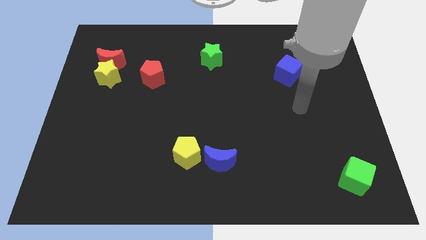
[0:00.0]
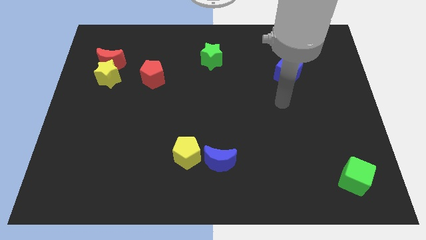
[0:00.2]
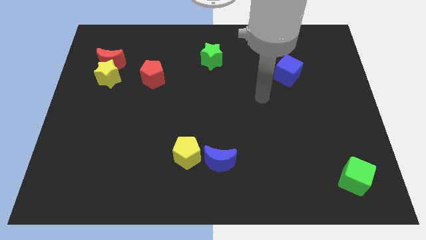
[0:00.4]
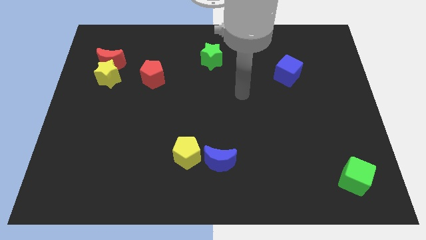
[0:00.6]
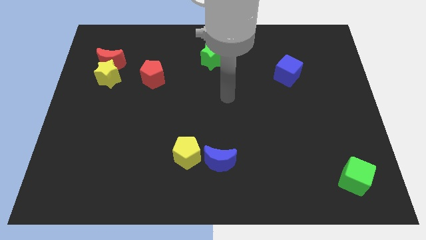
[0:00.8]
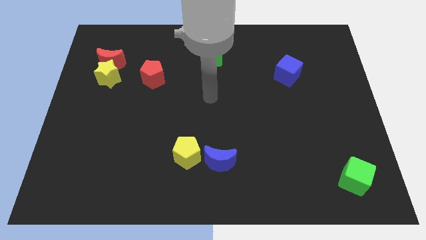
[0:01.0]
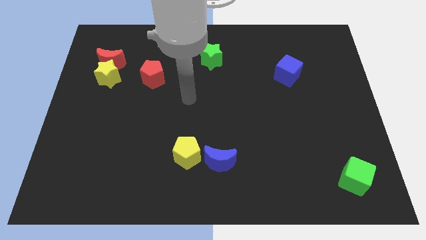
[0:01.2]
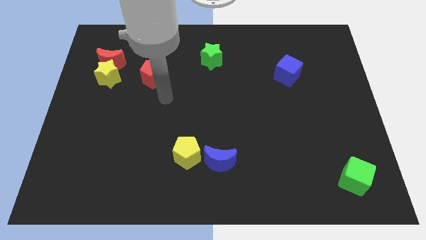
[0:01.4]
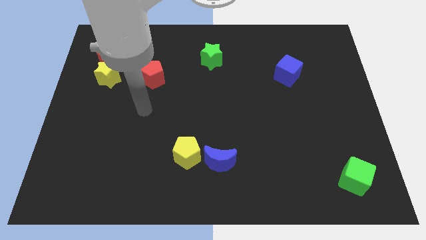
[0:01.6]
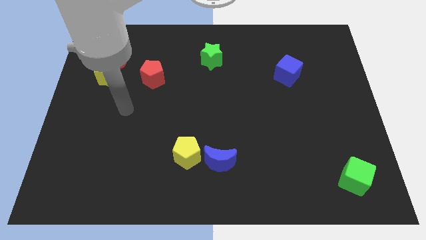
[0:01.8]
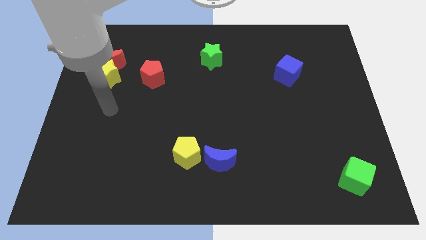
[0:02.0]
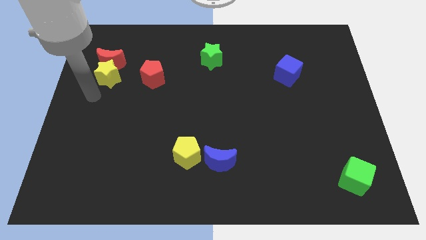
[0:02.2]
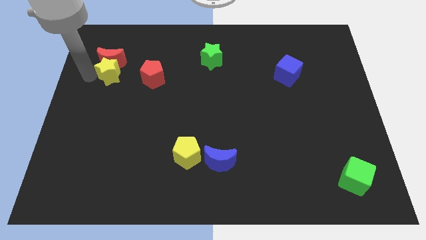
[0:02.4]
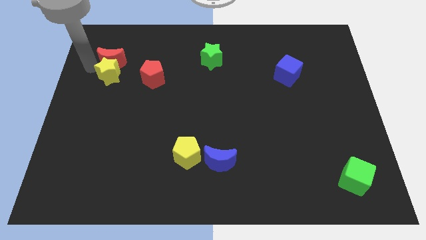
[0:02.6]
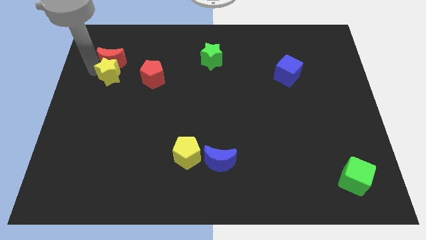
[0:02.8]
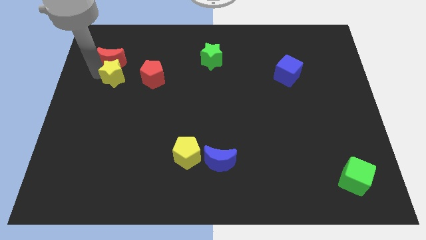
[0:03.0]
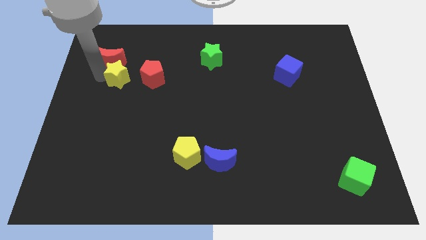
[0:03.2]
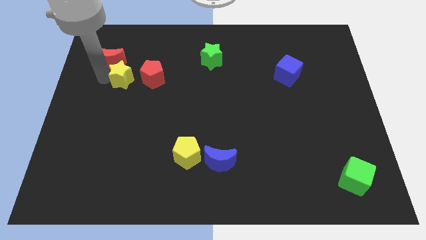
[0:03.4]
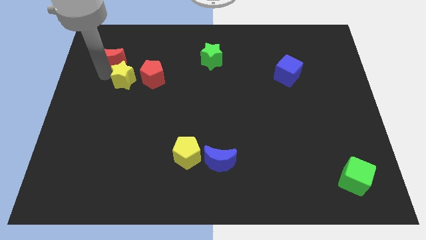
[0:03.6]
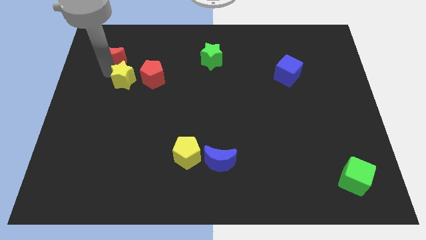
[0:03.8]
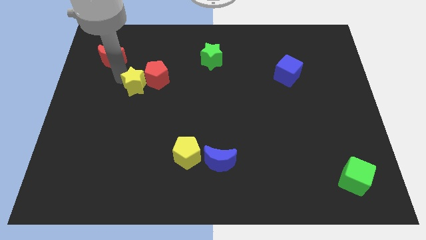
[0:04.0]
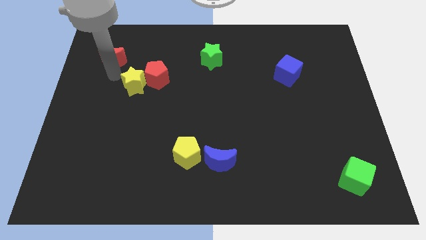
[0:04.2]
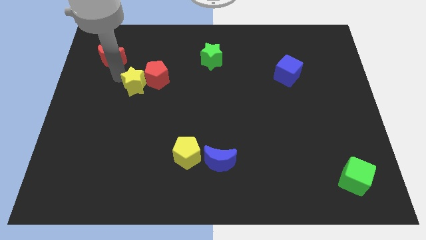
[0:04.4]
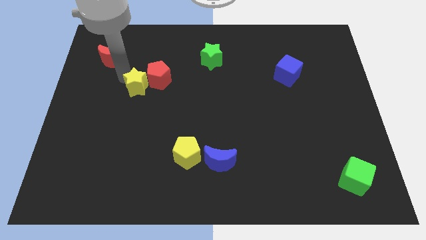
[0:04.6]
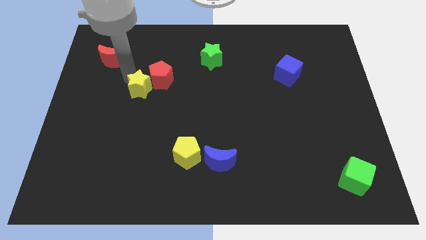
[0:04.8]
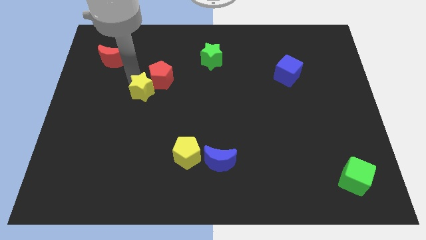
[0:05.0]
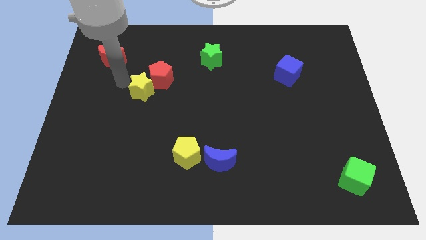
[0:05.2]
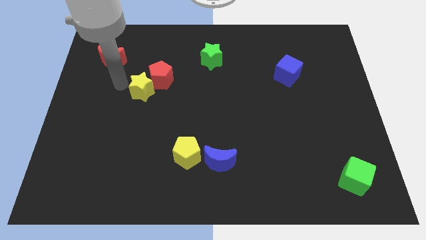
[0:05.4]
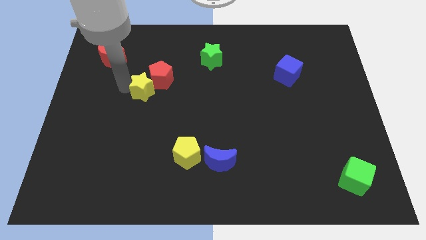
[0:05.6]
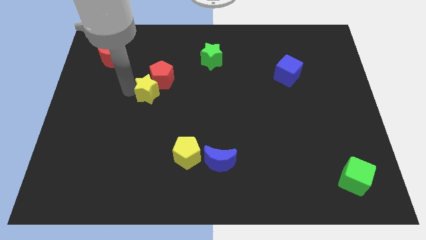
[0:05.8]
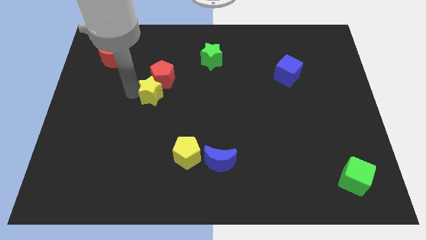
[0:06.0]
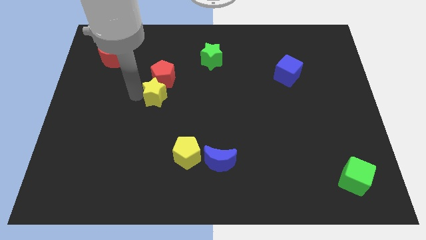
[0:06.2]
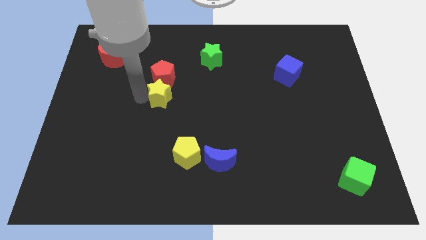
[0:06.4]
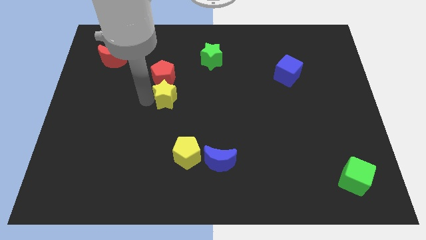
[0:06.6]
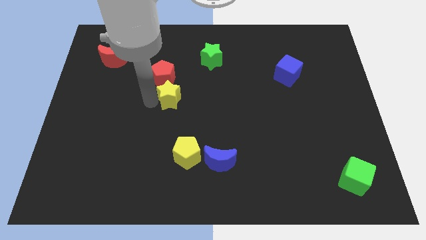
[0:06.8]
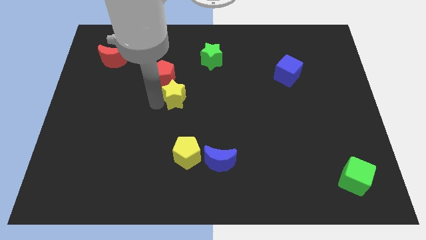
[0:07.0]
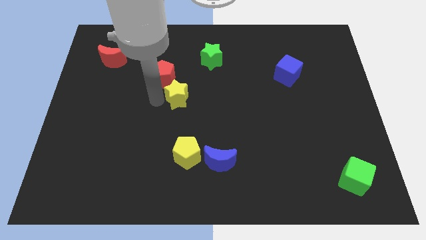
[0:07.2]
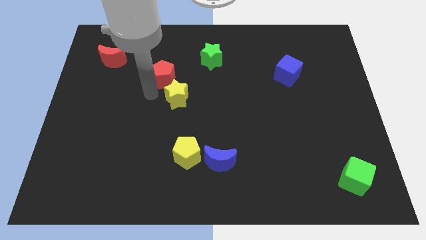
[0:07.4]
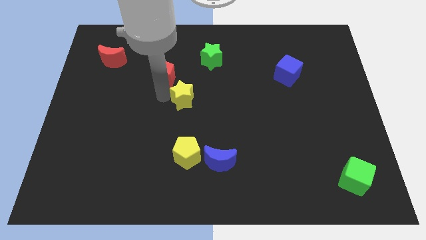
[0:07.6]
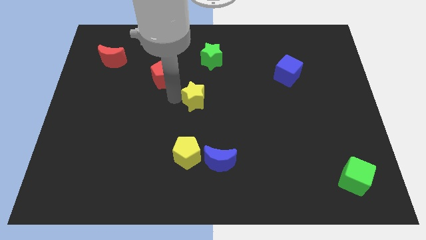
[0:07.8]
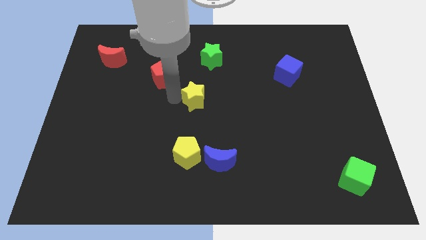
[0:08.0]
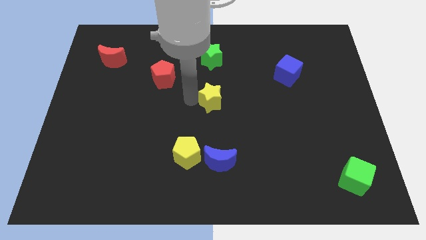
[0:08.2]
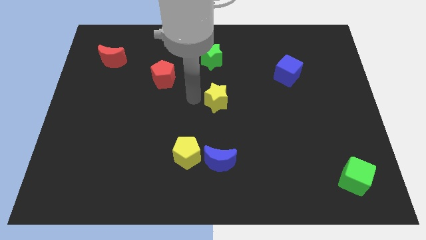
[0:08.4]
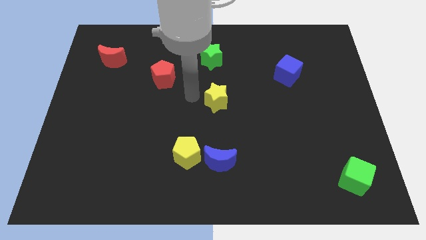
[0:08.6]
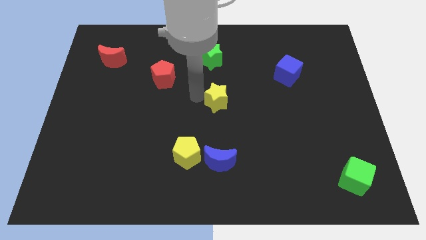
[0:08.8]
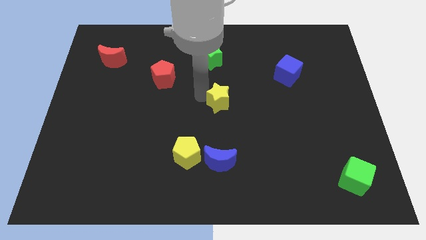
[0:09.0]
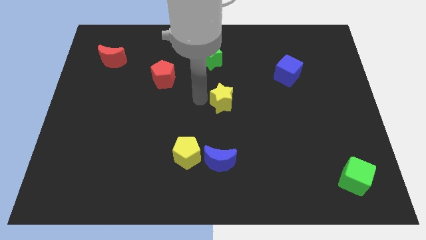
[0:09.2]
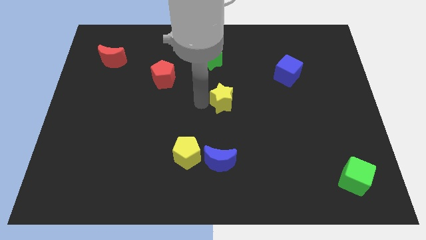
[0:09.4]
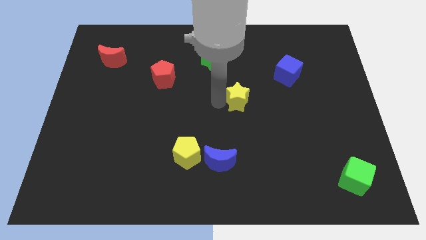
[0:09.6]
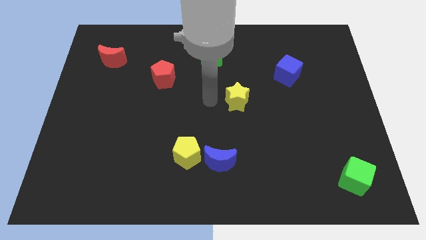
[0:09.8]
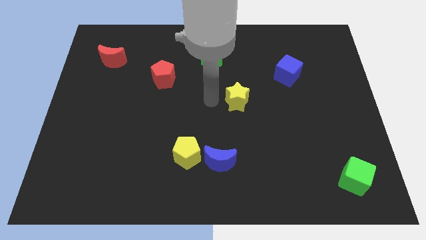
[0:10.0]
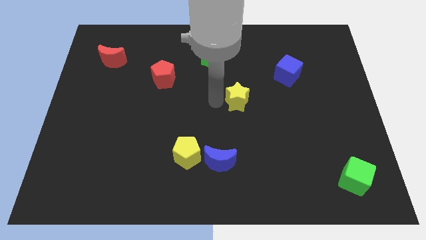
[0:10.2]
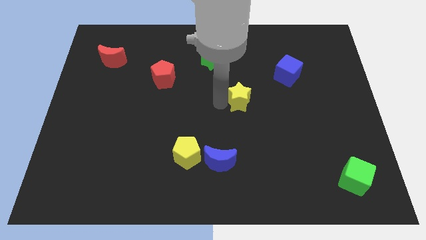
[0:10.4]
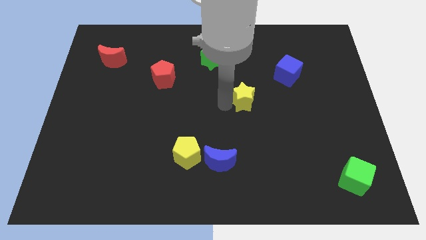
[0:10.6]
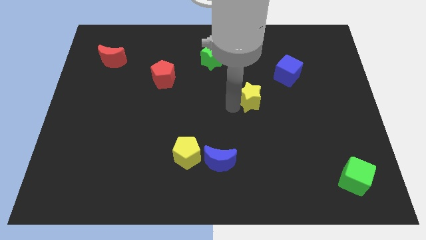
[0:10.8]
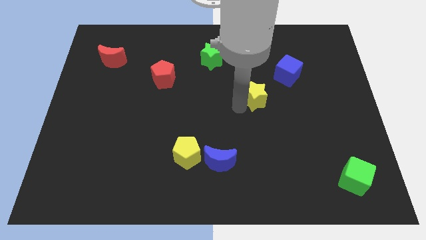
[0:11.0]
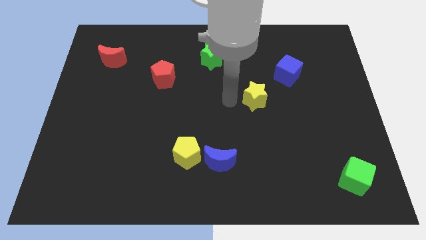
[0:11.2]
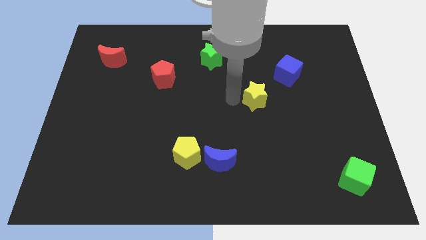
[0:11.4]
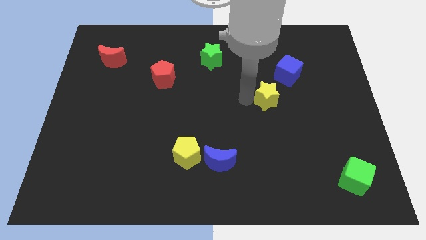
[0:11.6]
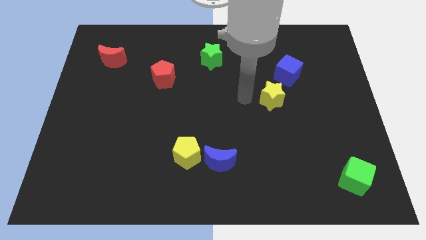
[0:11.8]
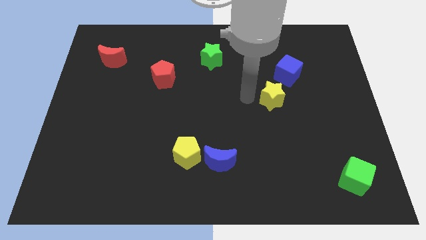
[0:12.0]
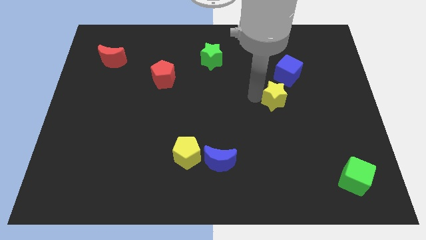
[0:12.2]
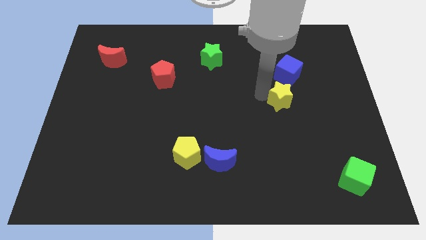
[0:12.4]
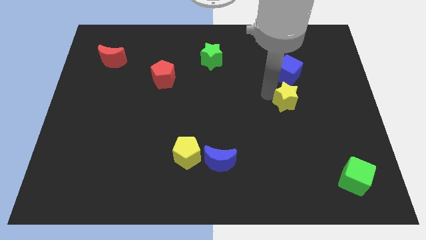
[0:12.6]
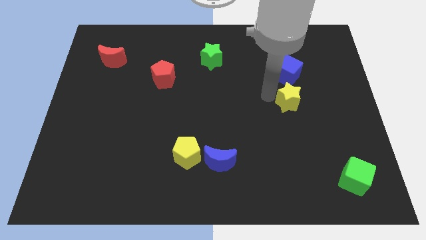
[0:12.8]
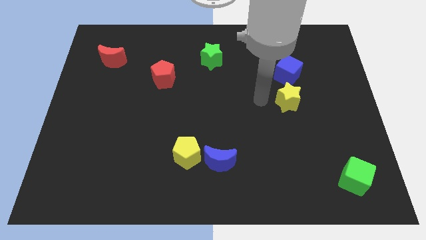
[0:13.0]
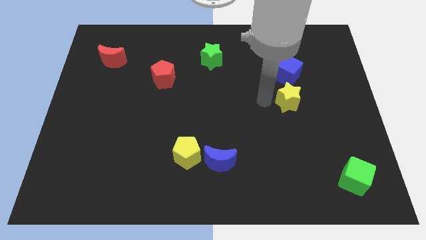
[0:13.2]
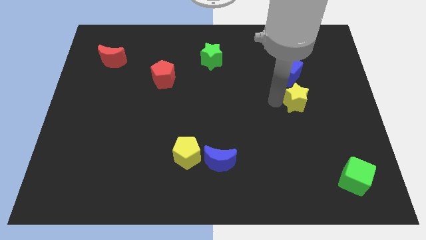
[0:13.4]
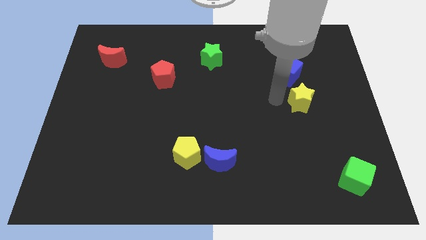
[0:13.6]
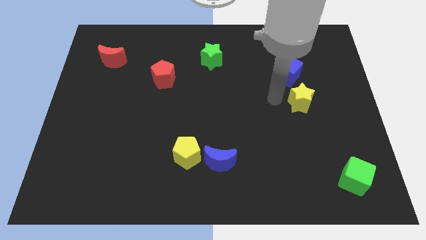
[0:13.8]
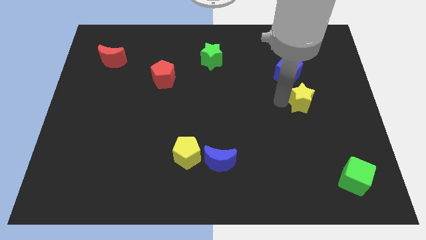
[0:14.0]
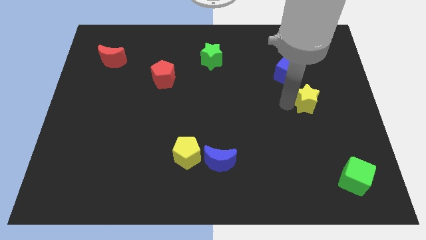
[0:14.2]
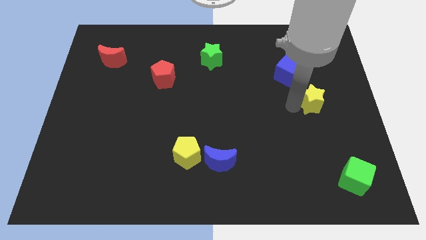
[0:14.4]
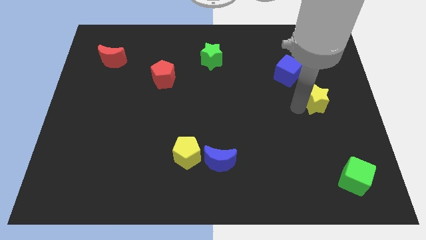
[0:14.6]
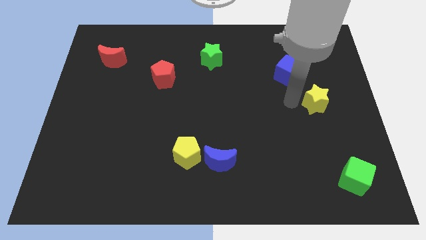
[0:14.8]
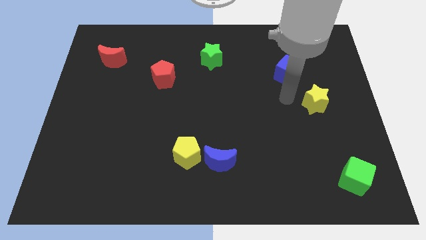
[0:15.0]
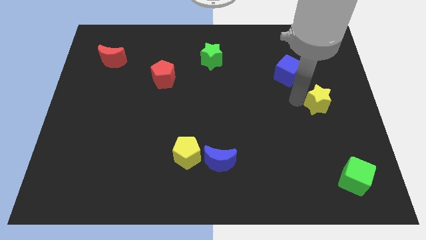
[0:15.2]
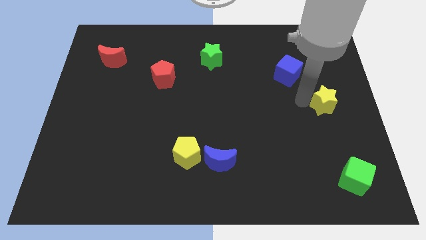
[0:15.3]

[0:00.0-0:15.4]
push the yellow star to the right side
